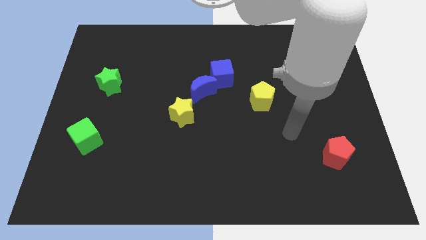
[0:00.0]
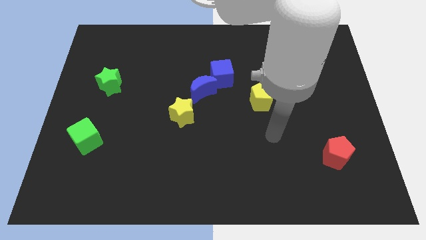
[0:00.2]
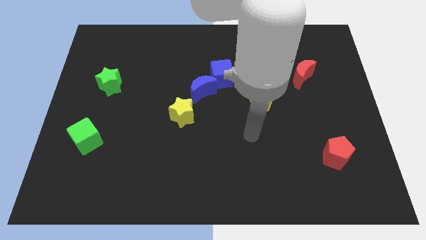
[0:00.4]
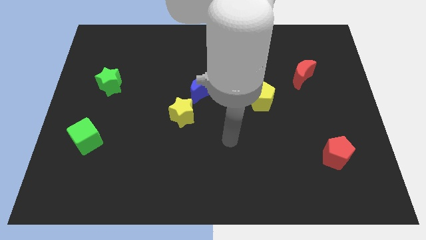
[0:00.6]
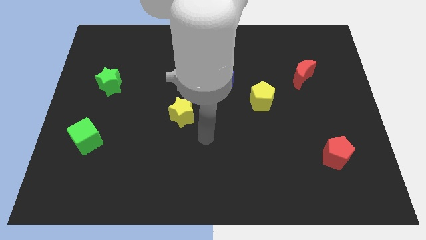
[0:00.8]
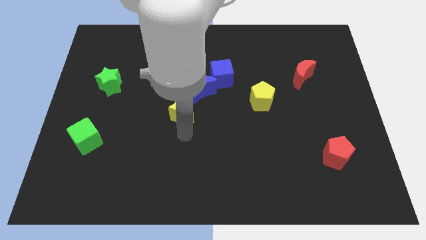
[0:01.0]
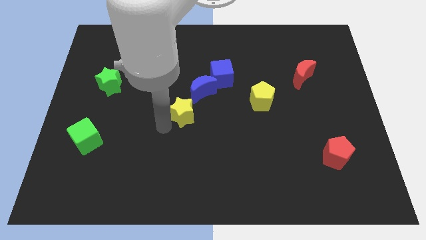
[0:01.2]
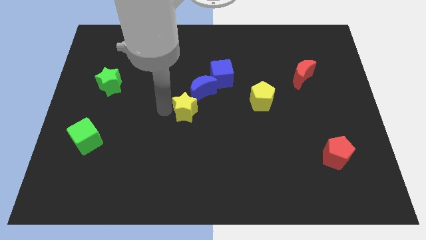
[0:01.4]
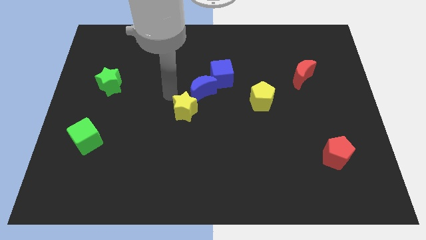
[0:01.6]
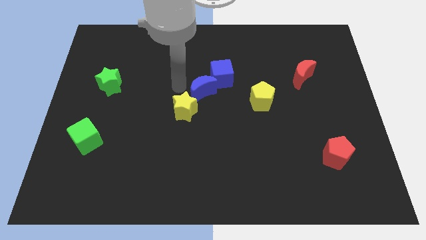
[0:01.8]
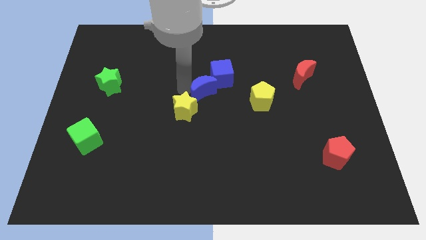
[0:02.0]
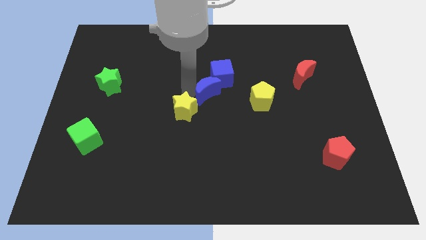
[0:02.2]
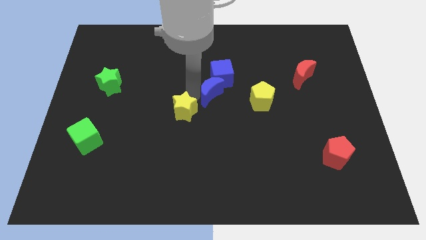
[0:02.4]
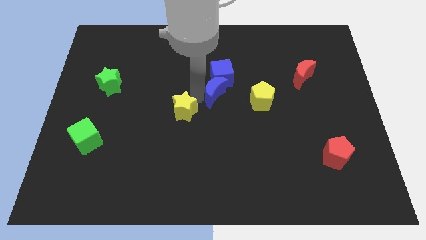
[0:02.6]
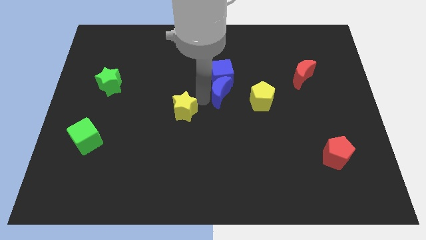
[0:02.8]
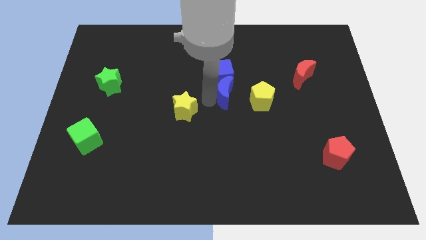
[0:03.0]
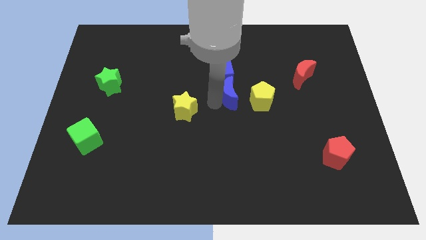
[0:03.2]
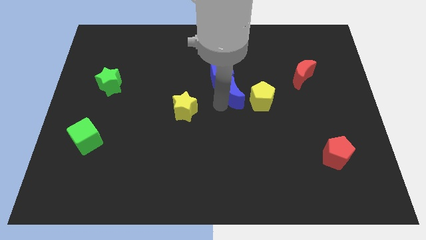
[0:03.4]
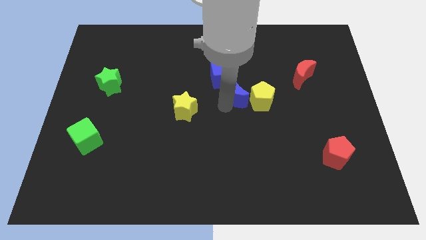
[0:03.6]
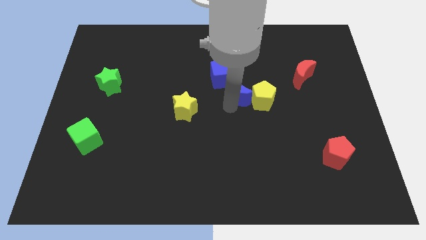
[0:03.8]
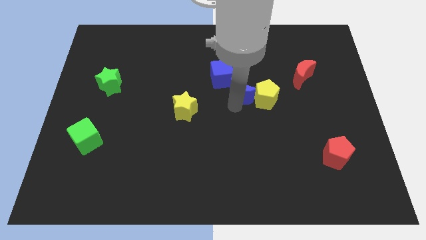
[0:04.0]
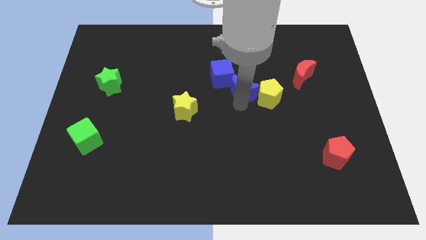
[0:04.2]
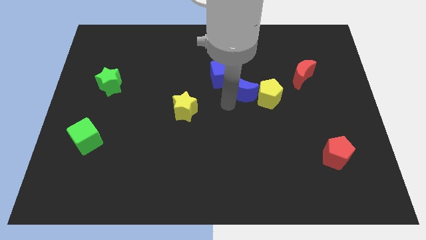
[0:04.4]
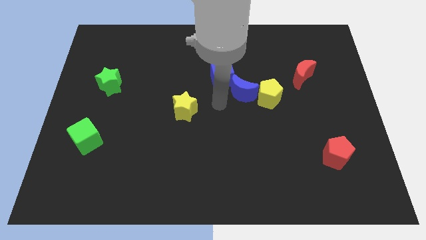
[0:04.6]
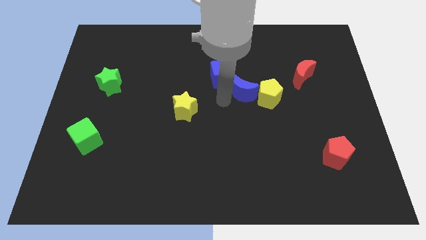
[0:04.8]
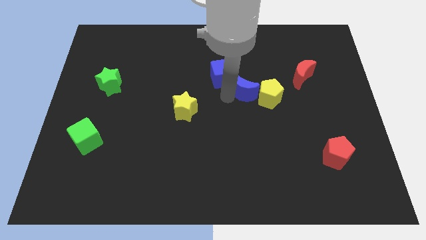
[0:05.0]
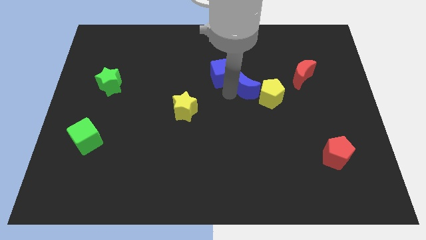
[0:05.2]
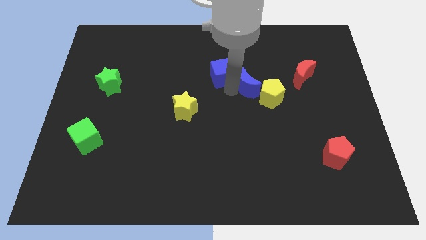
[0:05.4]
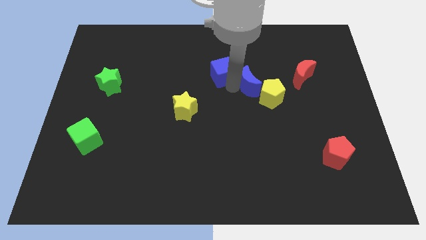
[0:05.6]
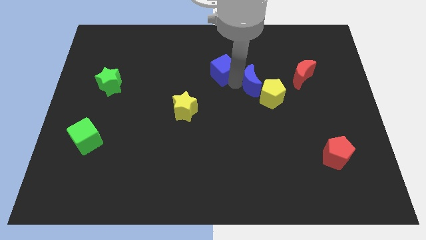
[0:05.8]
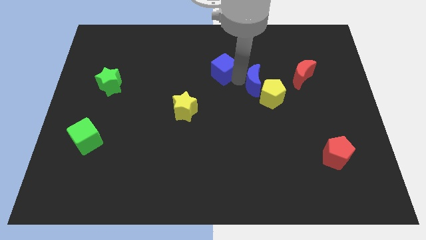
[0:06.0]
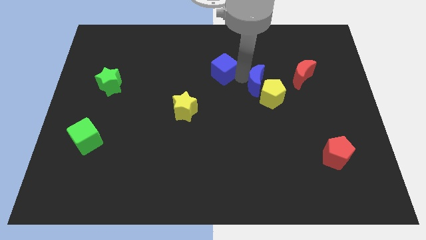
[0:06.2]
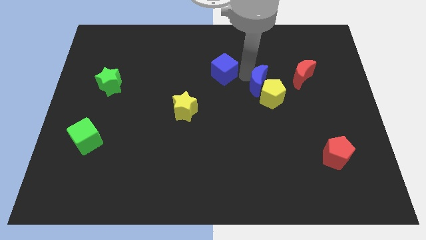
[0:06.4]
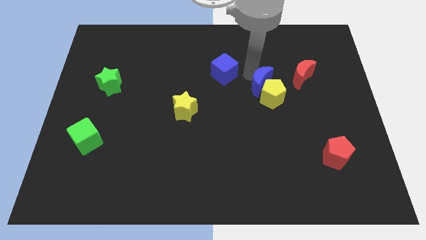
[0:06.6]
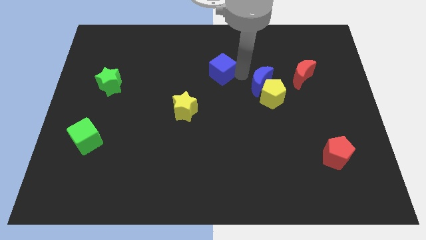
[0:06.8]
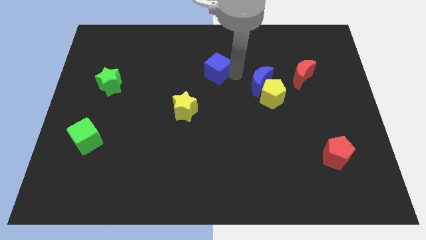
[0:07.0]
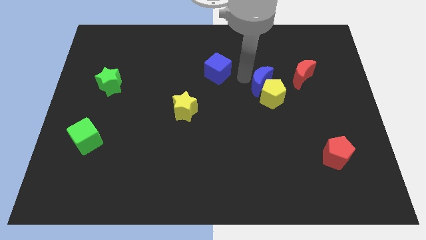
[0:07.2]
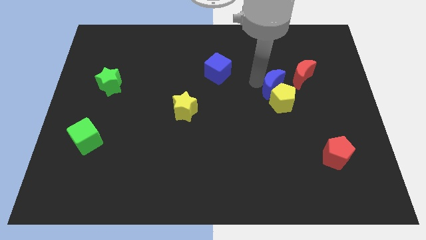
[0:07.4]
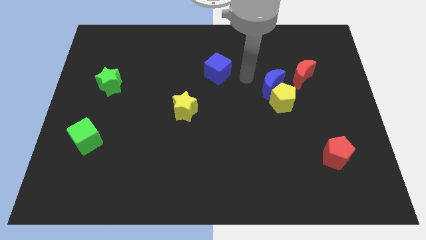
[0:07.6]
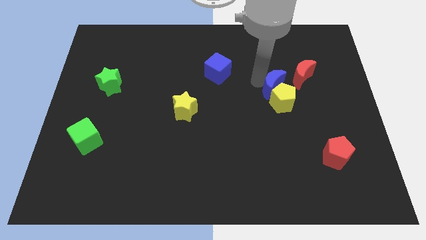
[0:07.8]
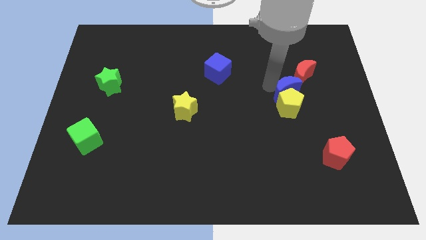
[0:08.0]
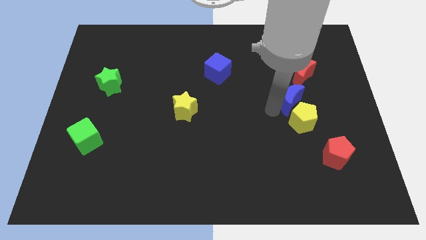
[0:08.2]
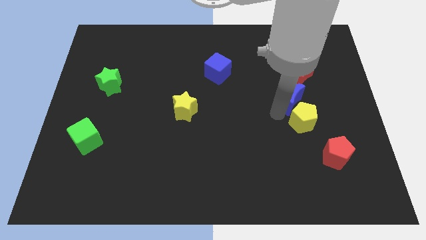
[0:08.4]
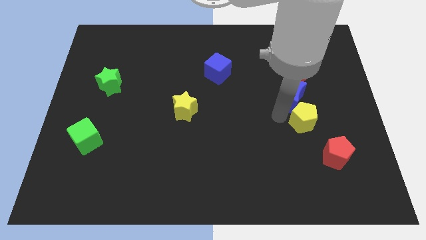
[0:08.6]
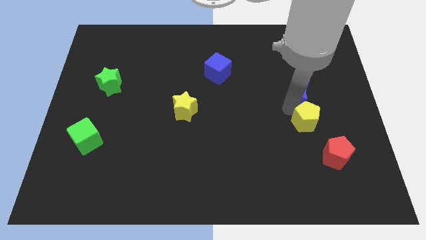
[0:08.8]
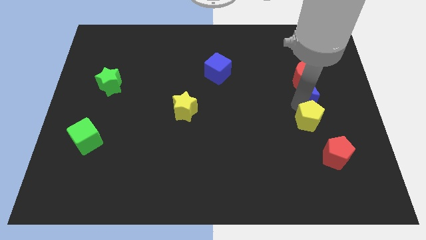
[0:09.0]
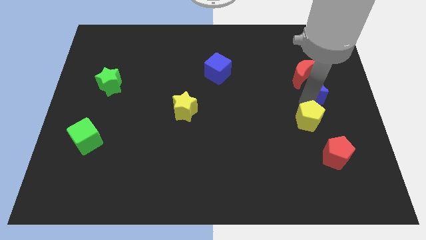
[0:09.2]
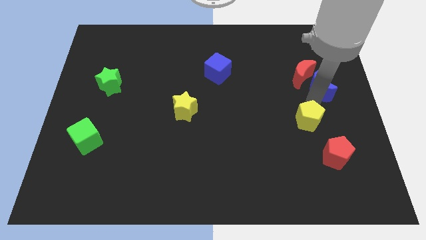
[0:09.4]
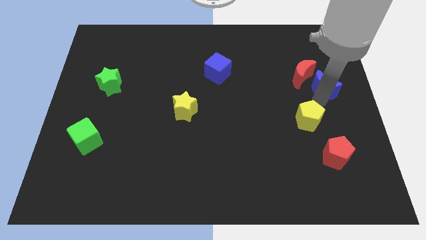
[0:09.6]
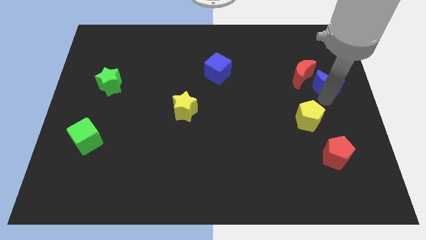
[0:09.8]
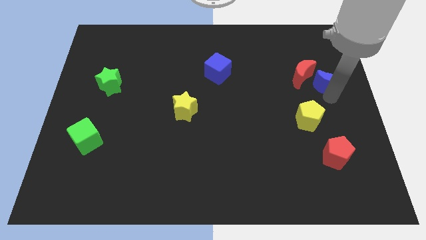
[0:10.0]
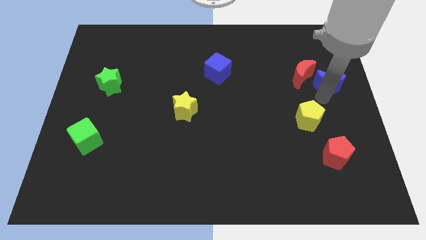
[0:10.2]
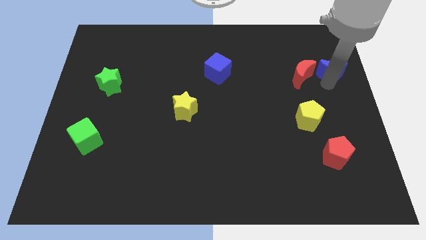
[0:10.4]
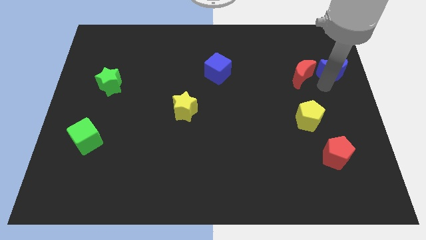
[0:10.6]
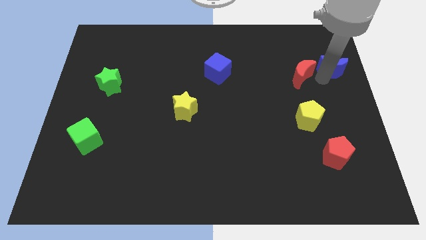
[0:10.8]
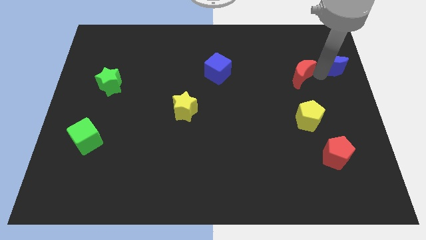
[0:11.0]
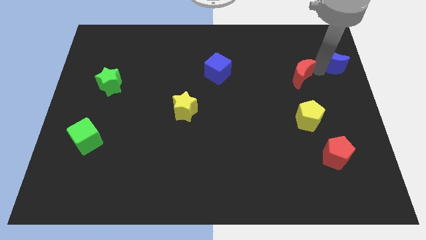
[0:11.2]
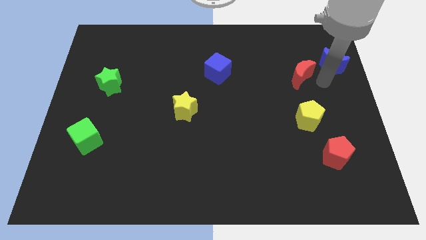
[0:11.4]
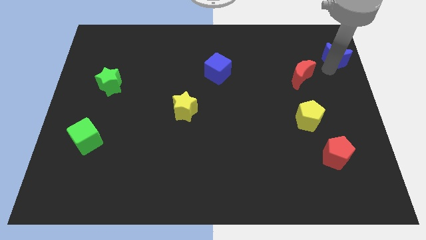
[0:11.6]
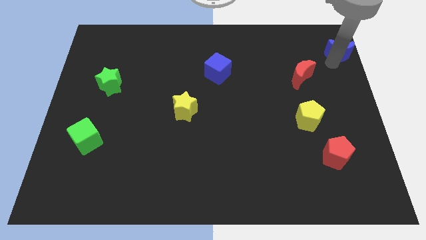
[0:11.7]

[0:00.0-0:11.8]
push the blue moon to the upper right corner

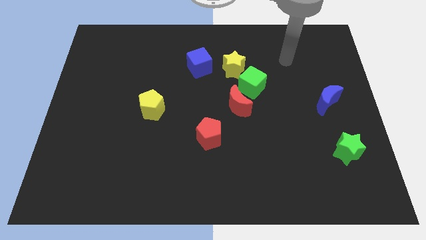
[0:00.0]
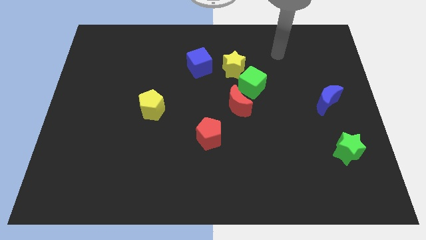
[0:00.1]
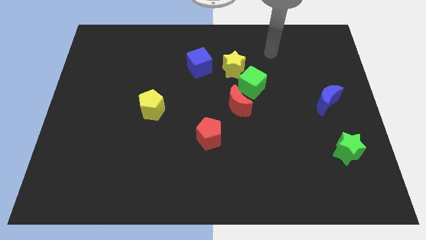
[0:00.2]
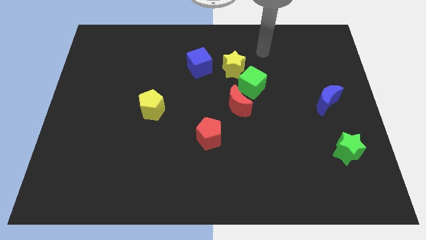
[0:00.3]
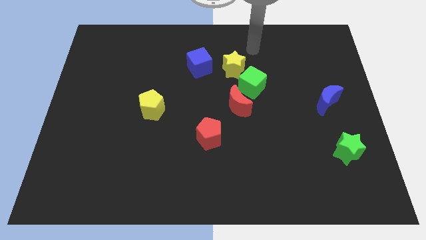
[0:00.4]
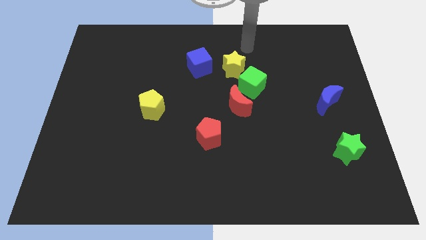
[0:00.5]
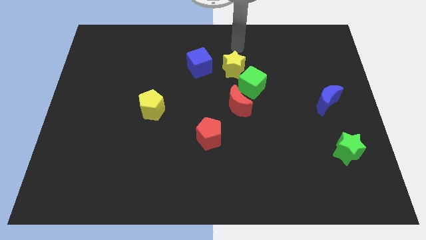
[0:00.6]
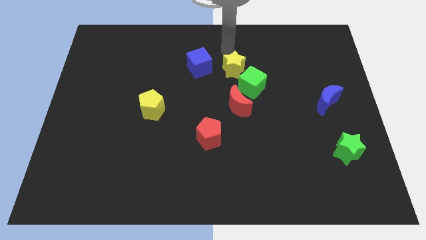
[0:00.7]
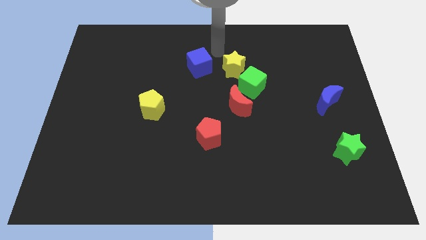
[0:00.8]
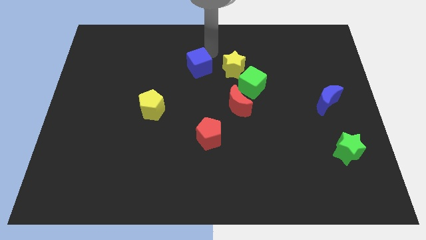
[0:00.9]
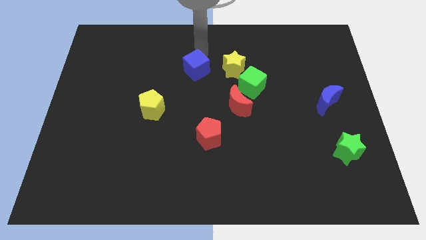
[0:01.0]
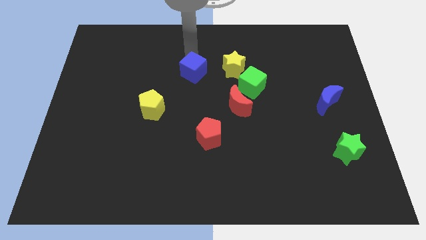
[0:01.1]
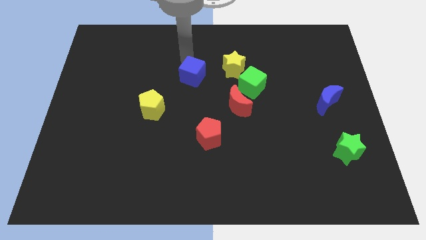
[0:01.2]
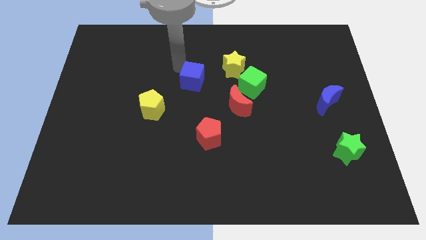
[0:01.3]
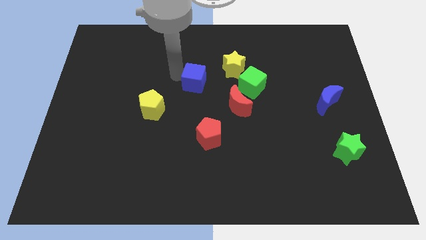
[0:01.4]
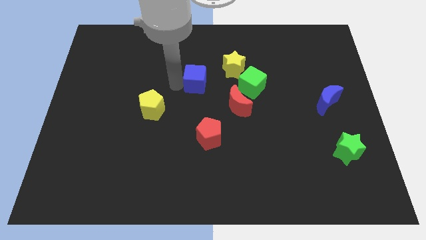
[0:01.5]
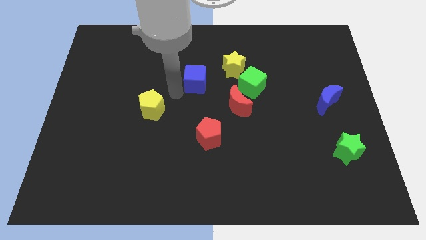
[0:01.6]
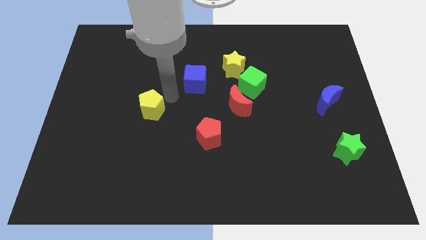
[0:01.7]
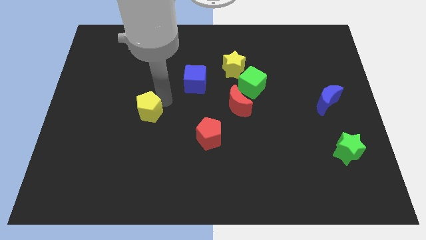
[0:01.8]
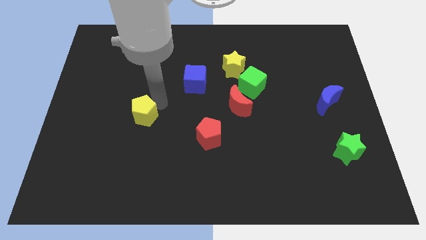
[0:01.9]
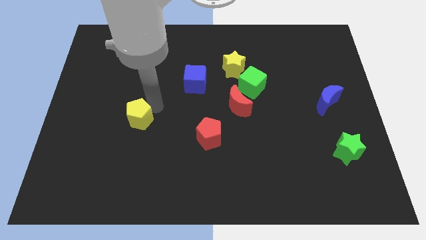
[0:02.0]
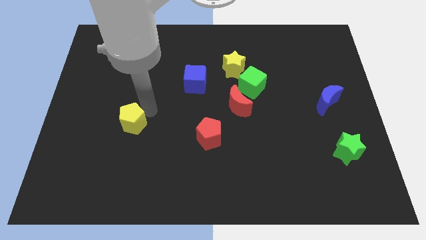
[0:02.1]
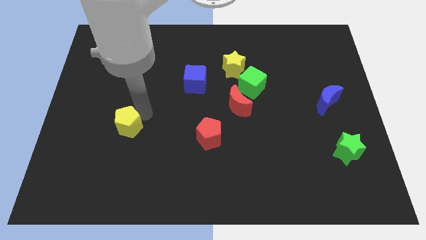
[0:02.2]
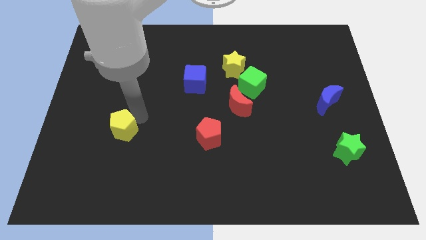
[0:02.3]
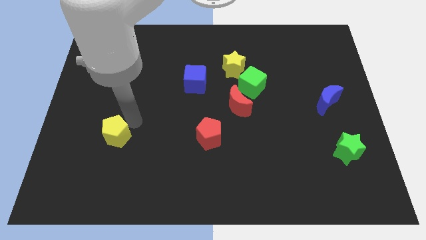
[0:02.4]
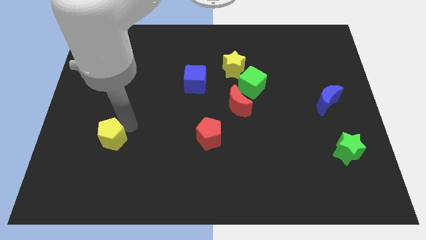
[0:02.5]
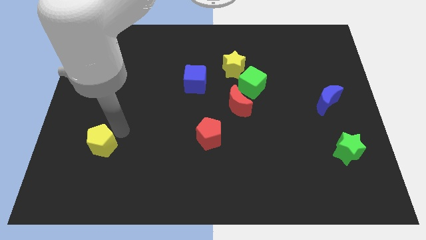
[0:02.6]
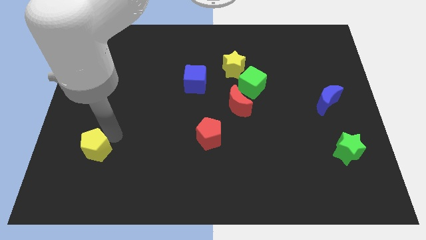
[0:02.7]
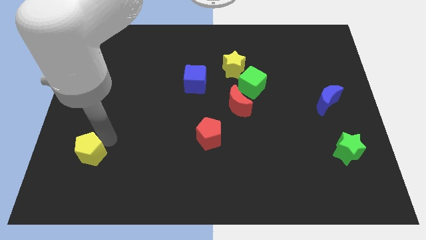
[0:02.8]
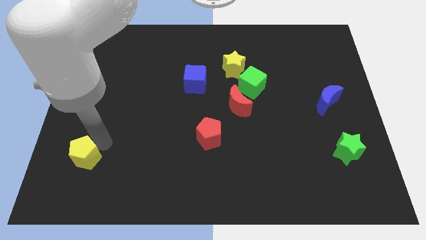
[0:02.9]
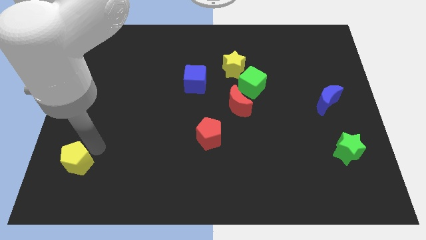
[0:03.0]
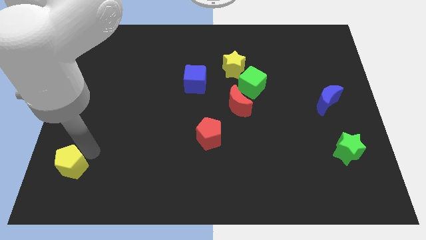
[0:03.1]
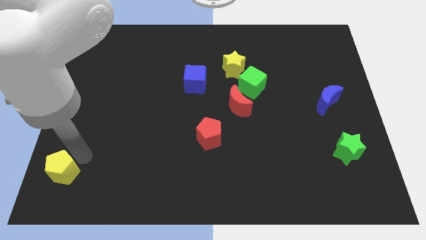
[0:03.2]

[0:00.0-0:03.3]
push the yellow pentagon to the bottom left corner
